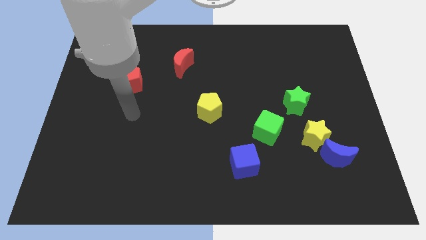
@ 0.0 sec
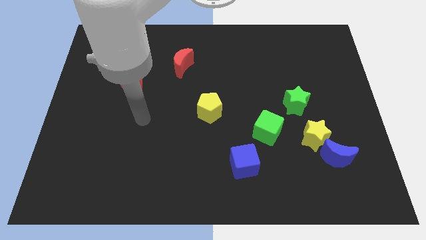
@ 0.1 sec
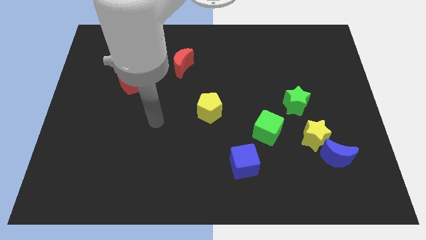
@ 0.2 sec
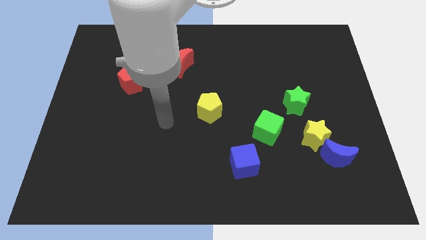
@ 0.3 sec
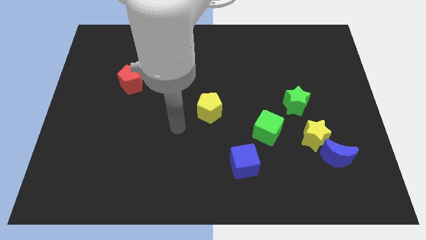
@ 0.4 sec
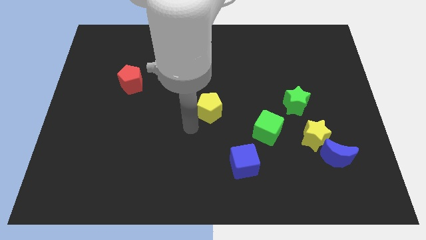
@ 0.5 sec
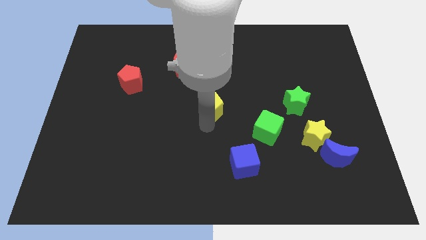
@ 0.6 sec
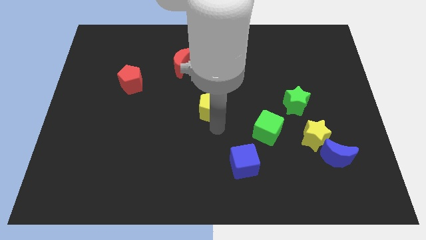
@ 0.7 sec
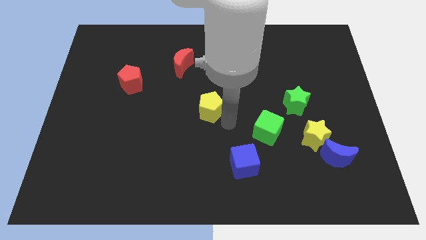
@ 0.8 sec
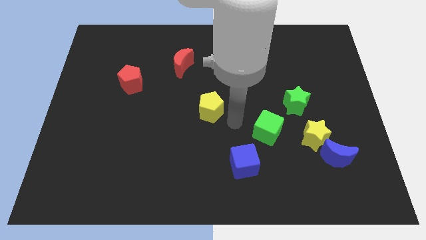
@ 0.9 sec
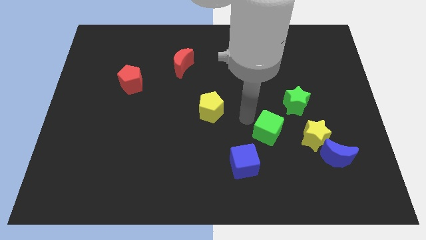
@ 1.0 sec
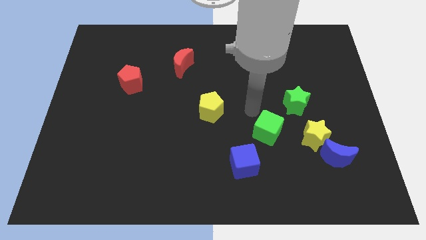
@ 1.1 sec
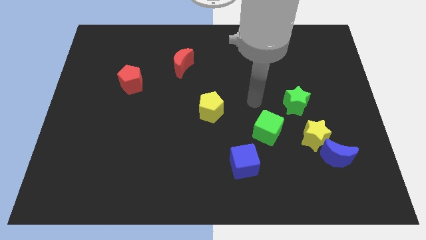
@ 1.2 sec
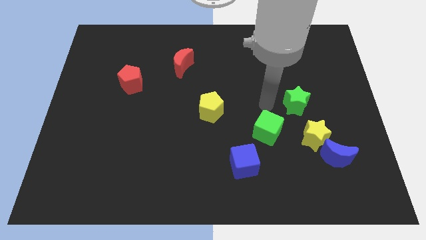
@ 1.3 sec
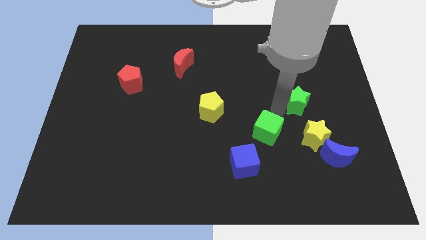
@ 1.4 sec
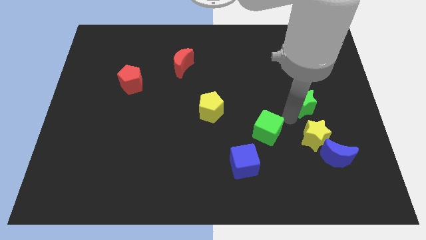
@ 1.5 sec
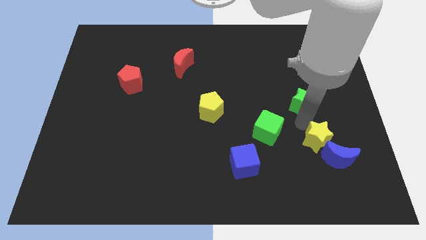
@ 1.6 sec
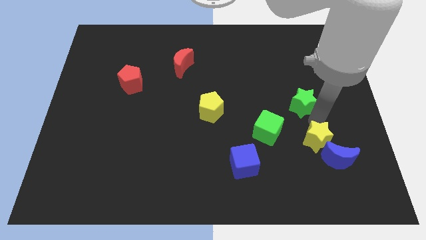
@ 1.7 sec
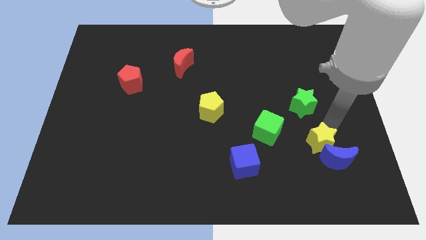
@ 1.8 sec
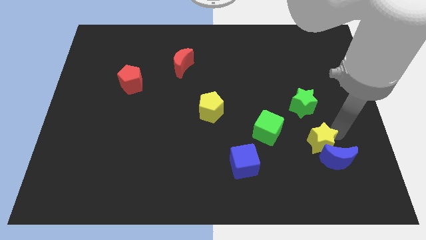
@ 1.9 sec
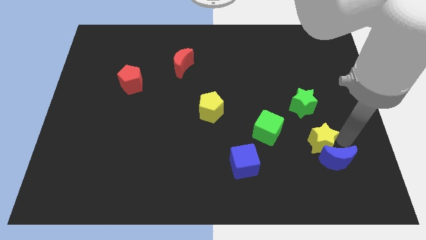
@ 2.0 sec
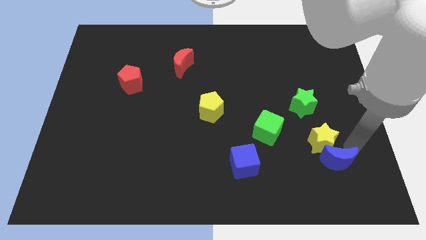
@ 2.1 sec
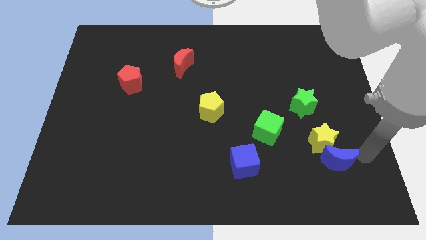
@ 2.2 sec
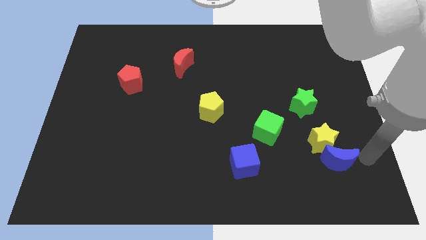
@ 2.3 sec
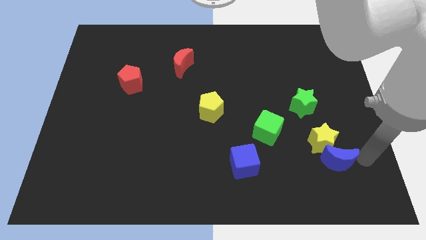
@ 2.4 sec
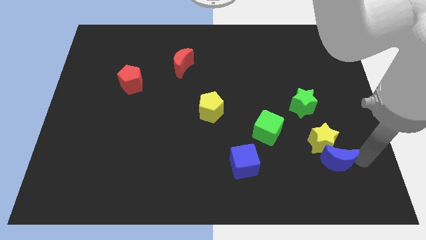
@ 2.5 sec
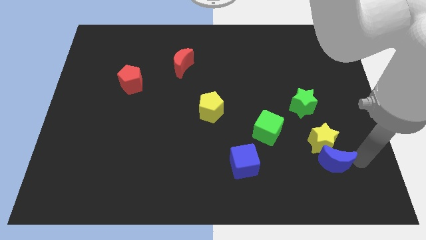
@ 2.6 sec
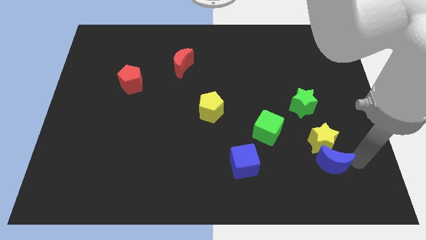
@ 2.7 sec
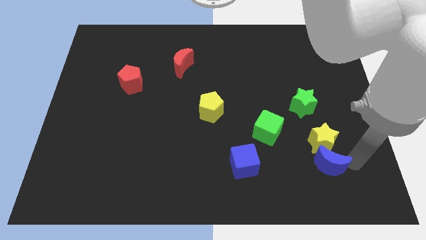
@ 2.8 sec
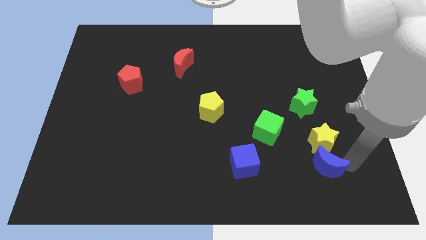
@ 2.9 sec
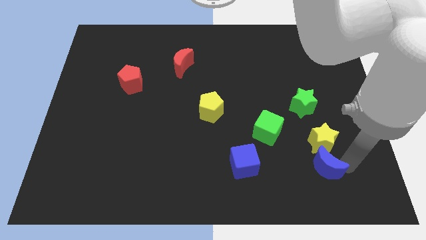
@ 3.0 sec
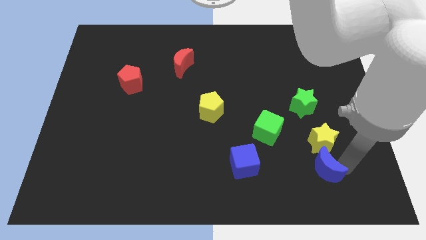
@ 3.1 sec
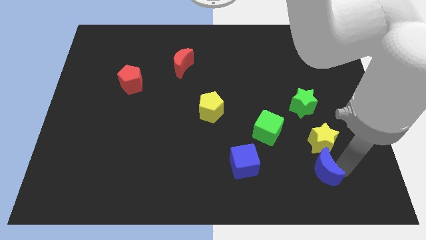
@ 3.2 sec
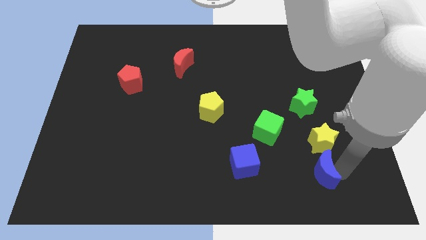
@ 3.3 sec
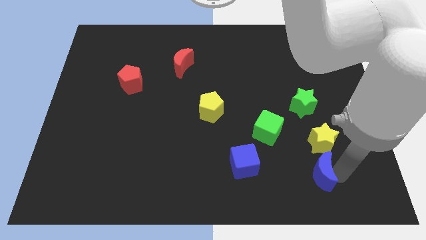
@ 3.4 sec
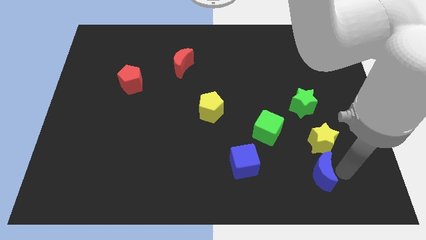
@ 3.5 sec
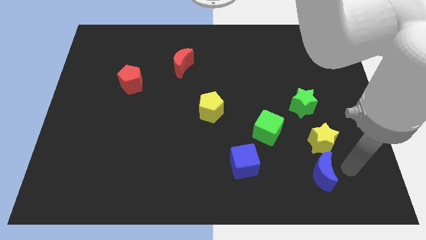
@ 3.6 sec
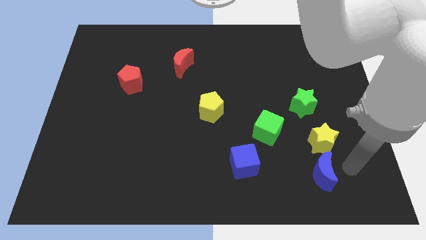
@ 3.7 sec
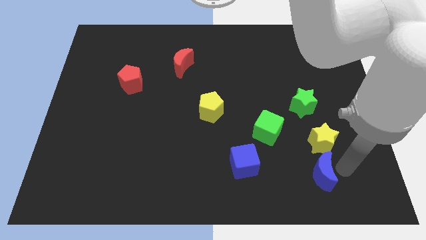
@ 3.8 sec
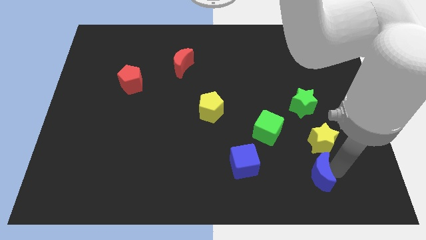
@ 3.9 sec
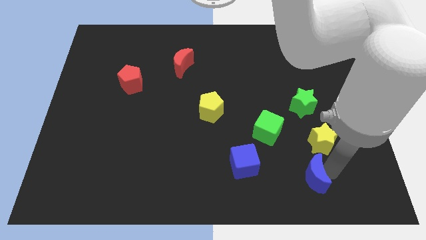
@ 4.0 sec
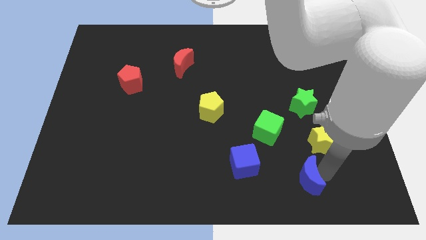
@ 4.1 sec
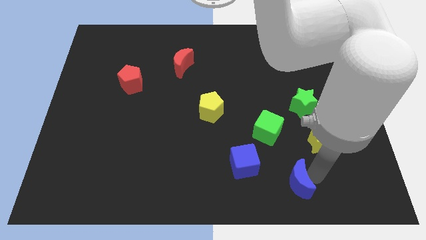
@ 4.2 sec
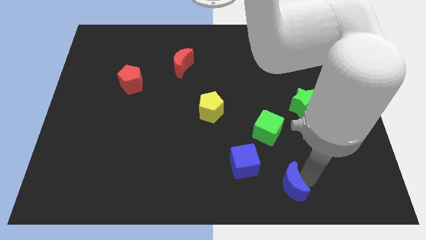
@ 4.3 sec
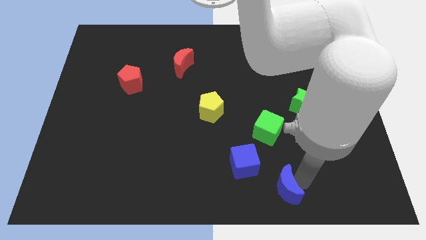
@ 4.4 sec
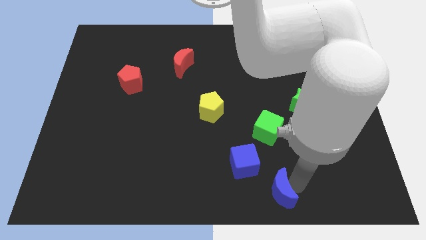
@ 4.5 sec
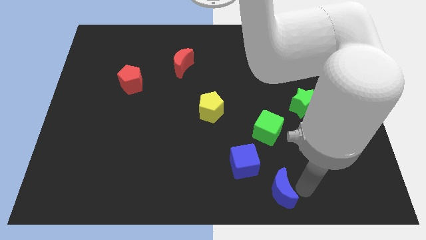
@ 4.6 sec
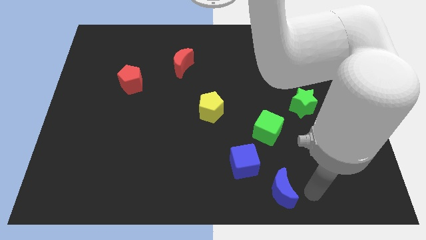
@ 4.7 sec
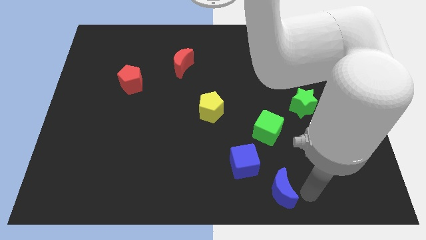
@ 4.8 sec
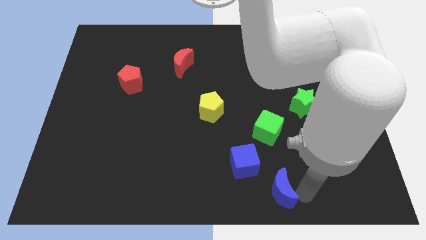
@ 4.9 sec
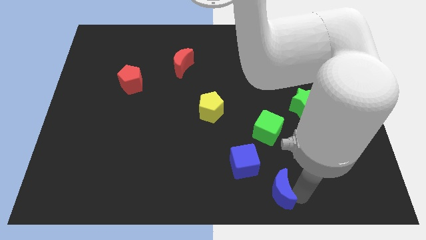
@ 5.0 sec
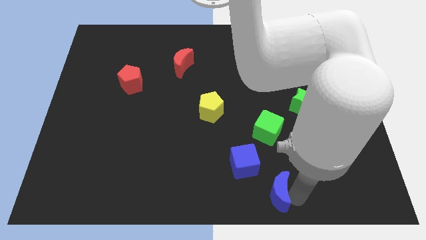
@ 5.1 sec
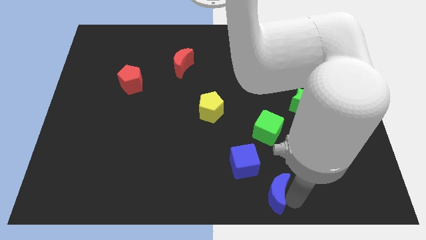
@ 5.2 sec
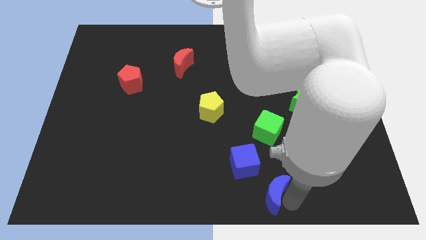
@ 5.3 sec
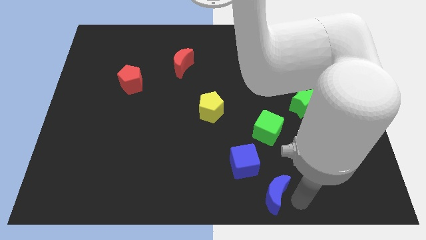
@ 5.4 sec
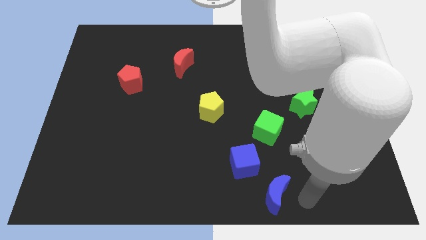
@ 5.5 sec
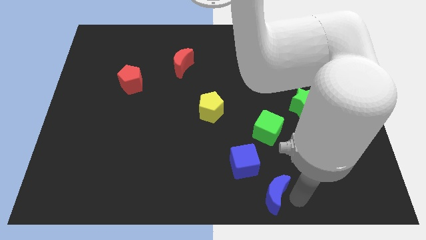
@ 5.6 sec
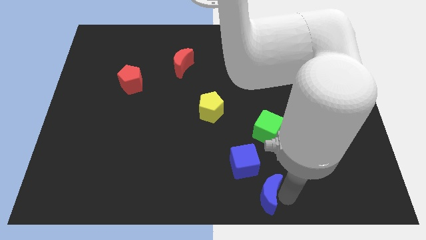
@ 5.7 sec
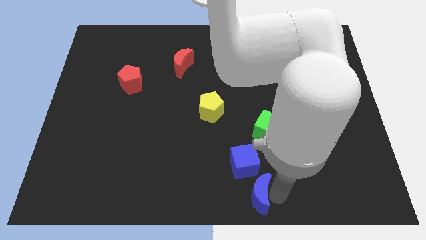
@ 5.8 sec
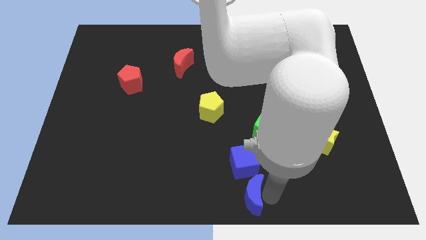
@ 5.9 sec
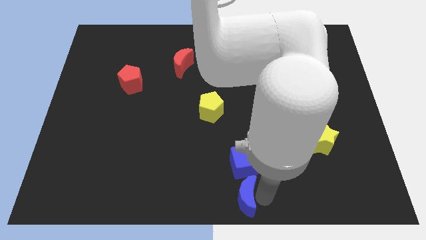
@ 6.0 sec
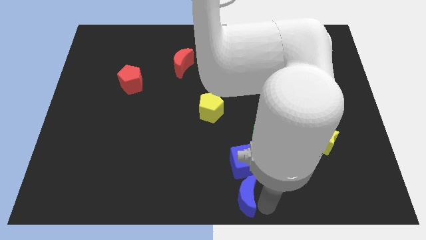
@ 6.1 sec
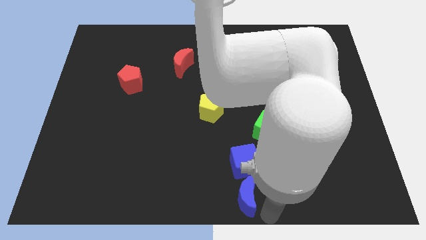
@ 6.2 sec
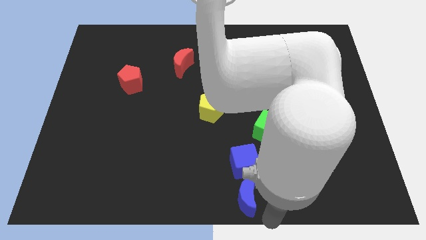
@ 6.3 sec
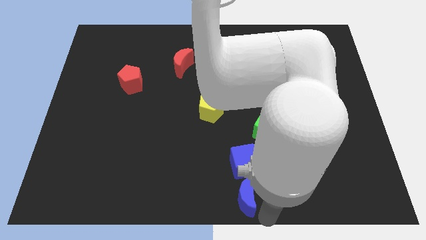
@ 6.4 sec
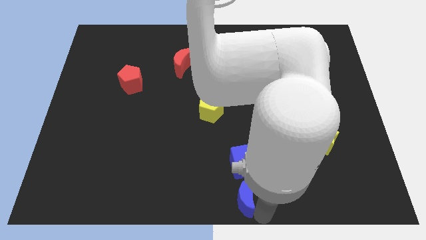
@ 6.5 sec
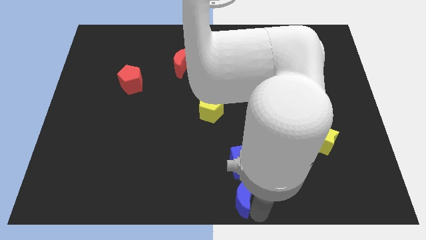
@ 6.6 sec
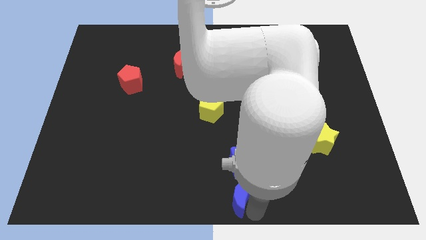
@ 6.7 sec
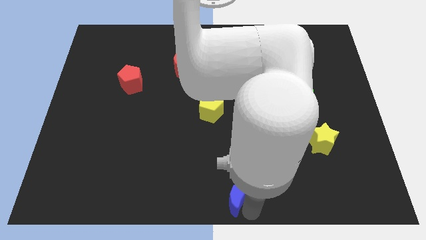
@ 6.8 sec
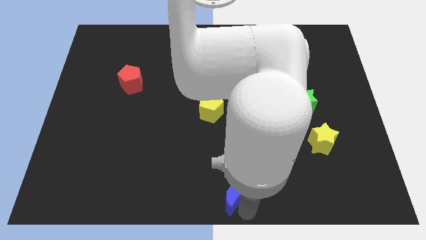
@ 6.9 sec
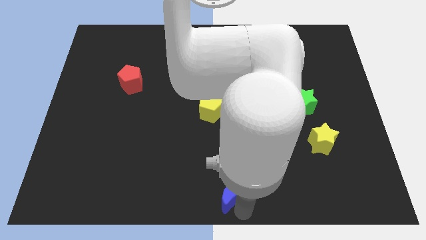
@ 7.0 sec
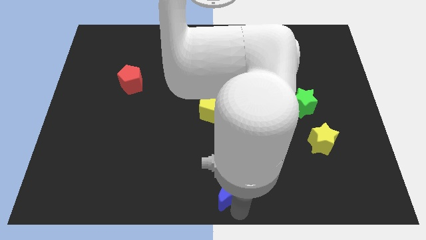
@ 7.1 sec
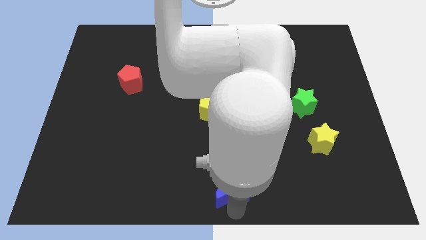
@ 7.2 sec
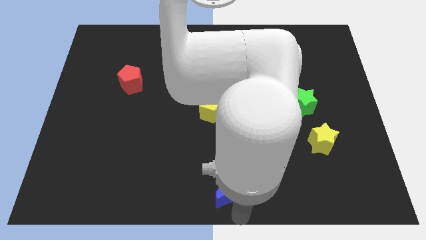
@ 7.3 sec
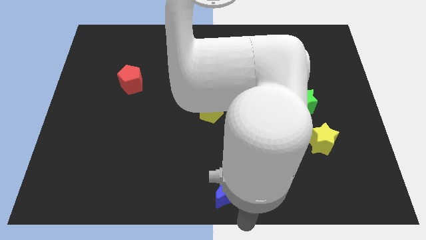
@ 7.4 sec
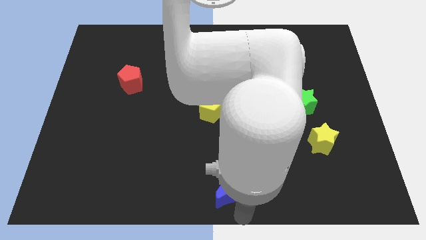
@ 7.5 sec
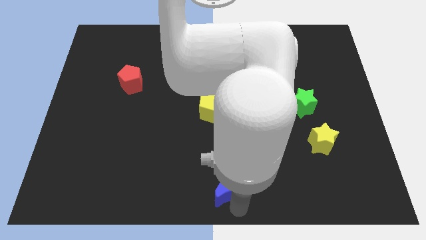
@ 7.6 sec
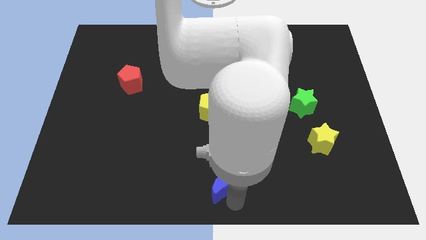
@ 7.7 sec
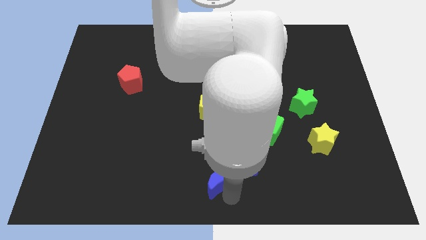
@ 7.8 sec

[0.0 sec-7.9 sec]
slide the blue moon left of the blue cube
